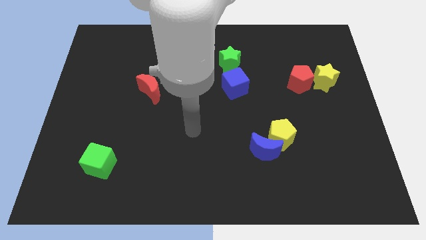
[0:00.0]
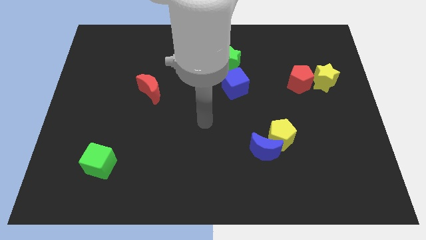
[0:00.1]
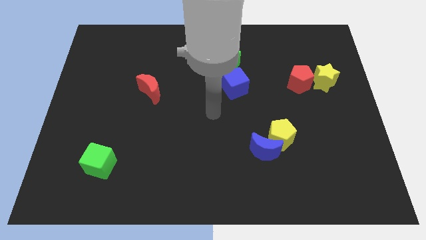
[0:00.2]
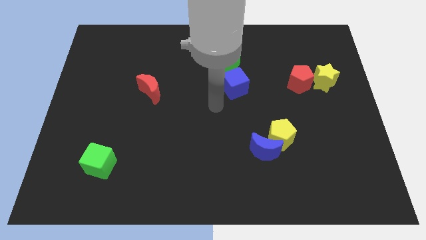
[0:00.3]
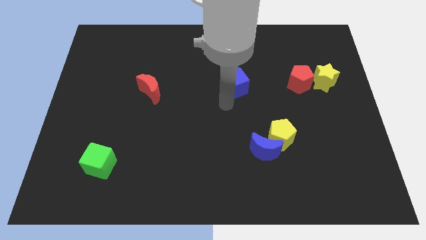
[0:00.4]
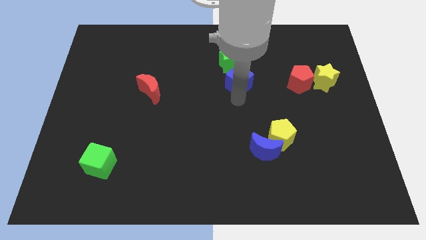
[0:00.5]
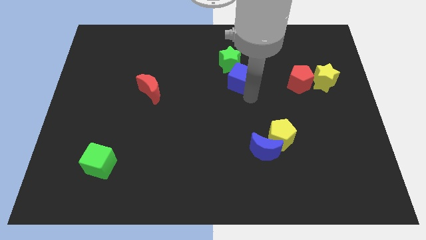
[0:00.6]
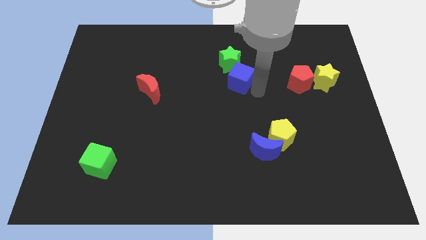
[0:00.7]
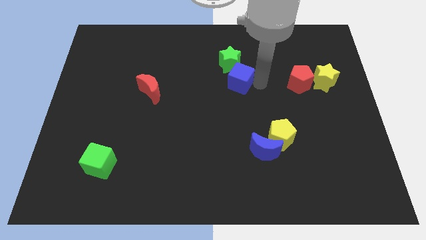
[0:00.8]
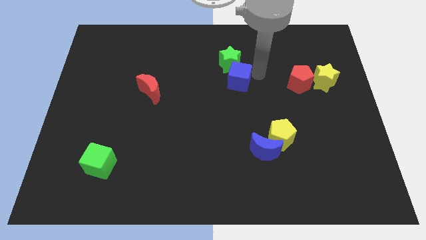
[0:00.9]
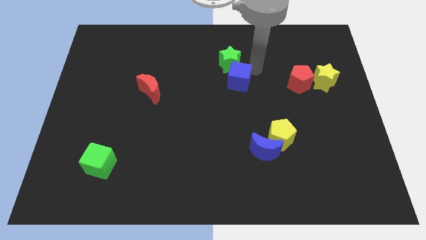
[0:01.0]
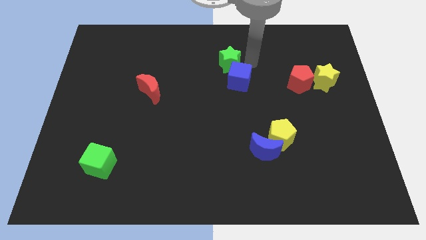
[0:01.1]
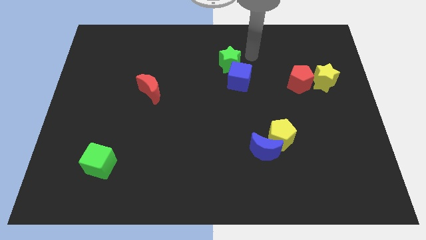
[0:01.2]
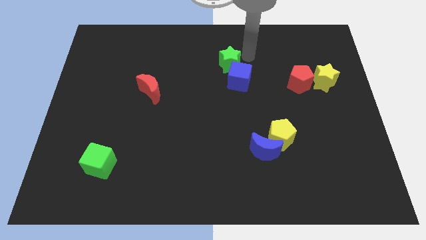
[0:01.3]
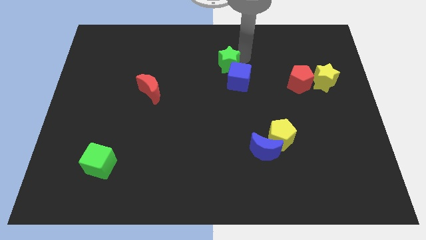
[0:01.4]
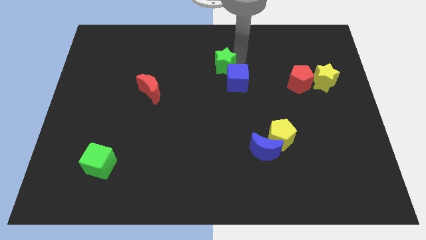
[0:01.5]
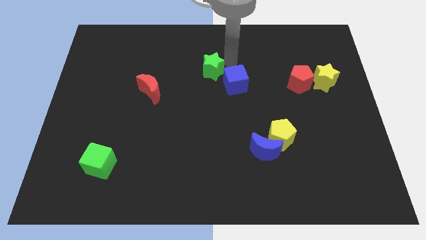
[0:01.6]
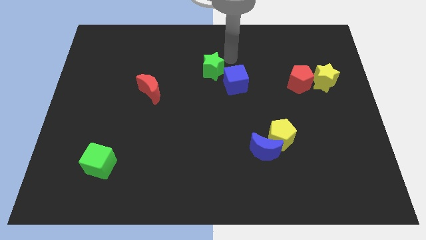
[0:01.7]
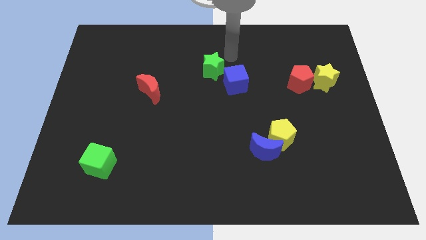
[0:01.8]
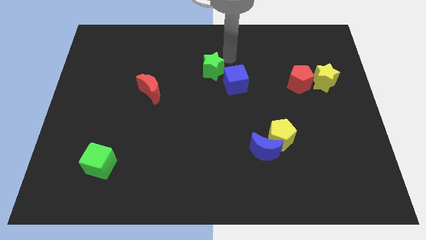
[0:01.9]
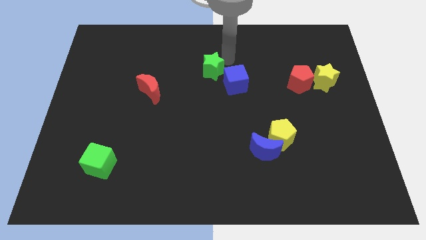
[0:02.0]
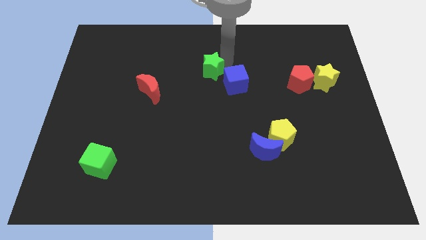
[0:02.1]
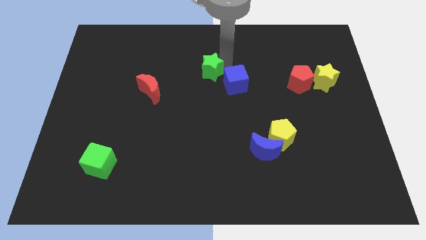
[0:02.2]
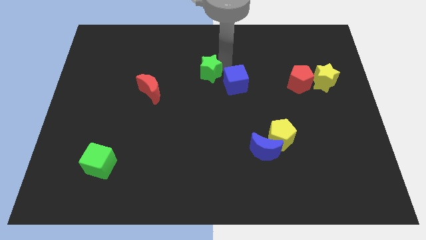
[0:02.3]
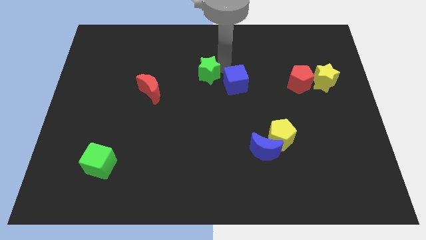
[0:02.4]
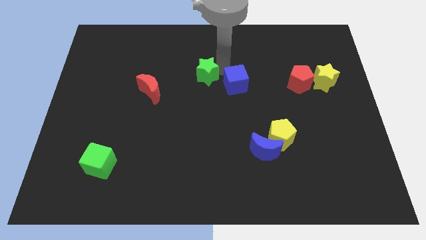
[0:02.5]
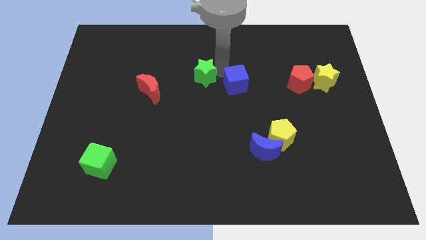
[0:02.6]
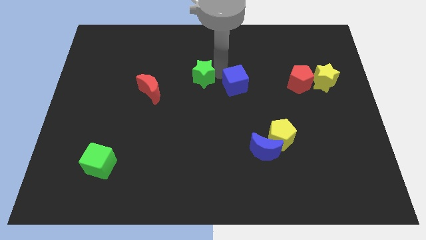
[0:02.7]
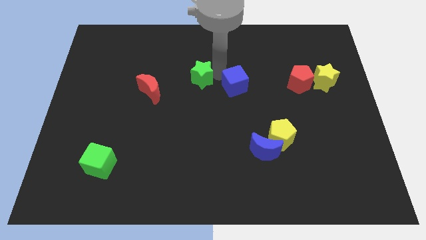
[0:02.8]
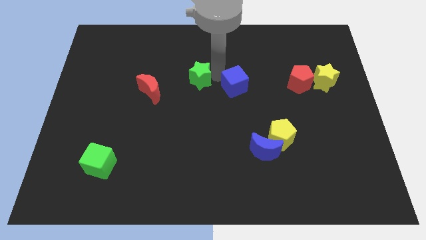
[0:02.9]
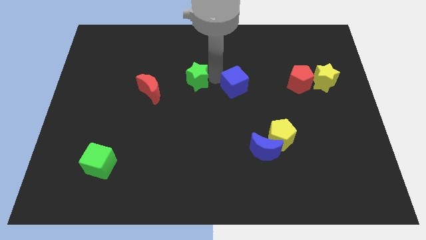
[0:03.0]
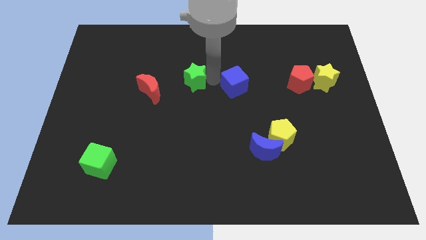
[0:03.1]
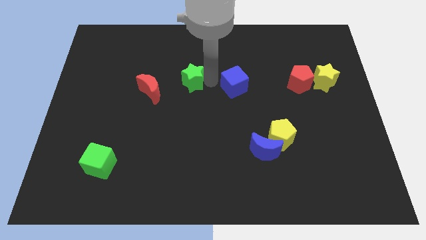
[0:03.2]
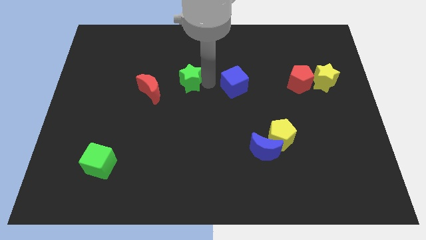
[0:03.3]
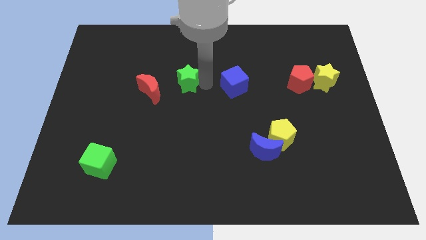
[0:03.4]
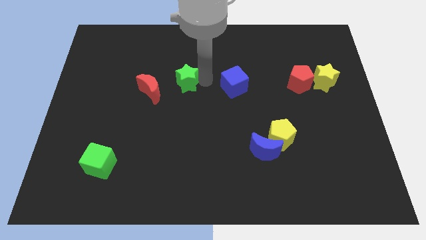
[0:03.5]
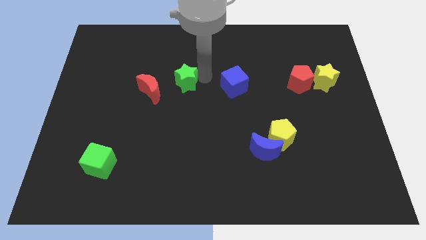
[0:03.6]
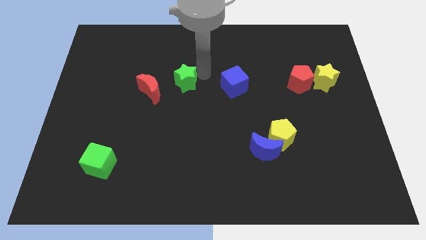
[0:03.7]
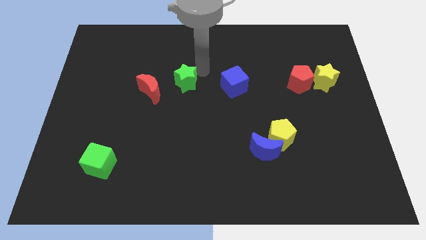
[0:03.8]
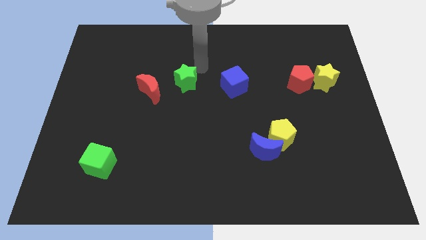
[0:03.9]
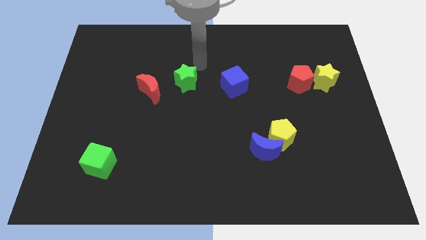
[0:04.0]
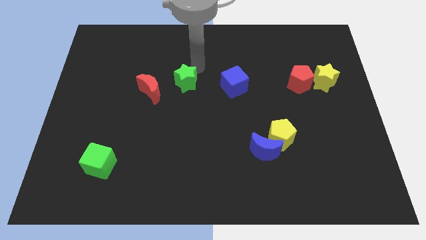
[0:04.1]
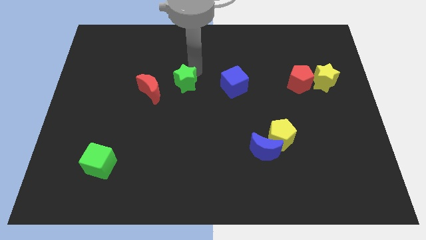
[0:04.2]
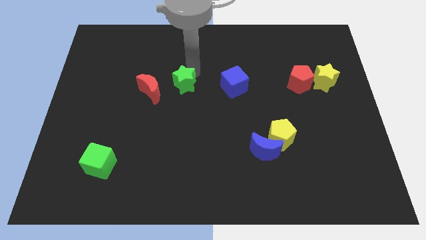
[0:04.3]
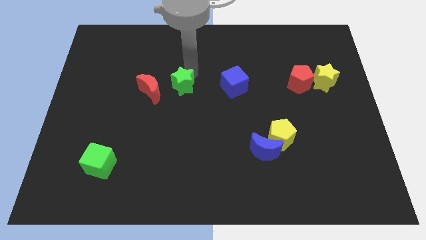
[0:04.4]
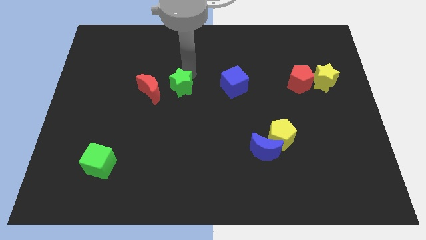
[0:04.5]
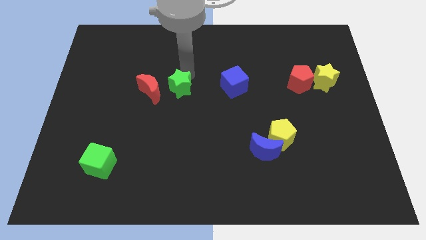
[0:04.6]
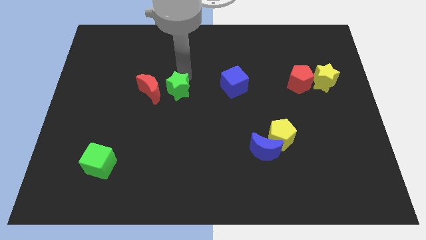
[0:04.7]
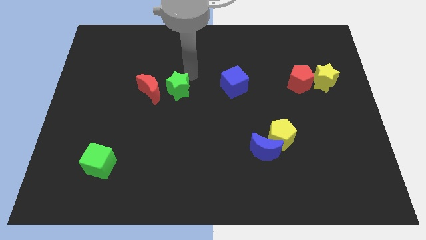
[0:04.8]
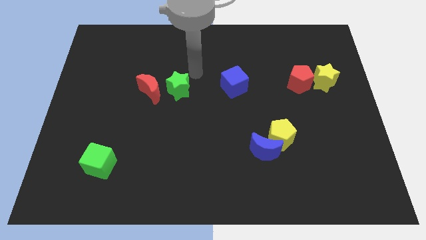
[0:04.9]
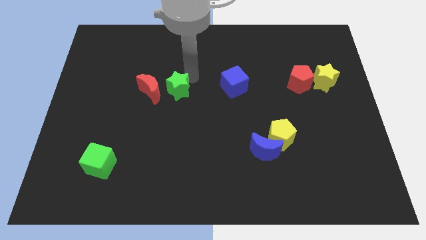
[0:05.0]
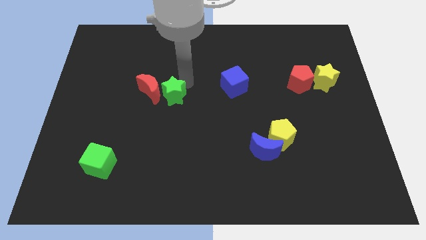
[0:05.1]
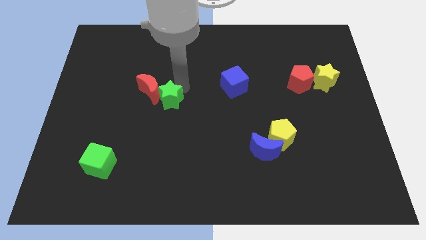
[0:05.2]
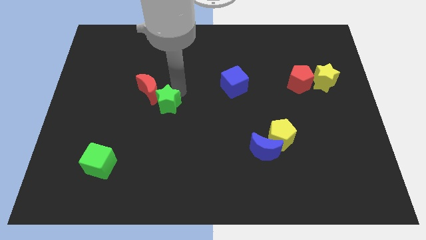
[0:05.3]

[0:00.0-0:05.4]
push the green star down and then left

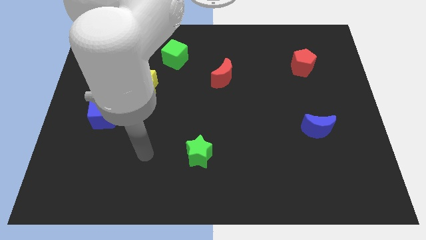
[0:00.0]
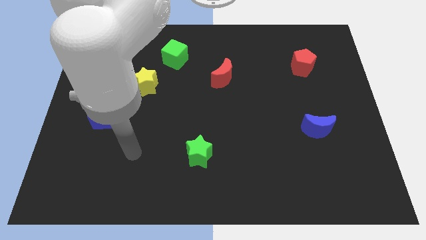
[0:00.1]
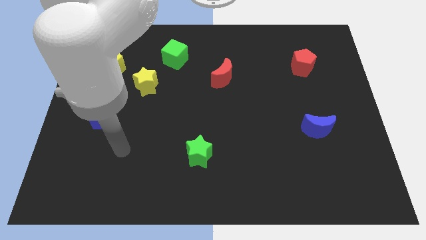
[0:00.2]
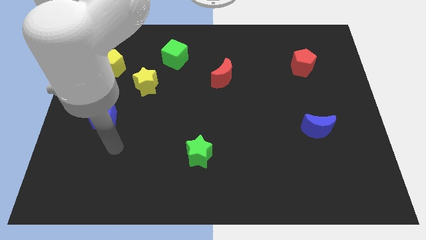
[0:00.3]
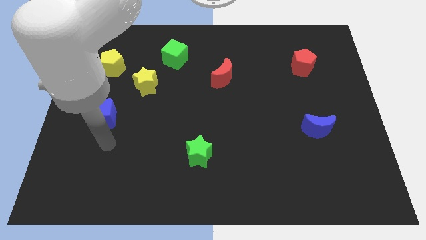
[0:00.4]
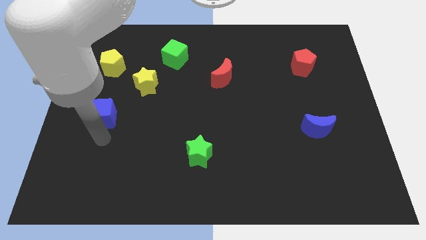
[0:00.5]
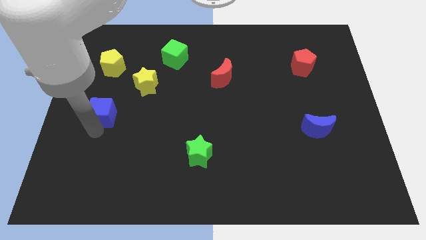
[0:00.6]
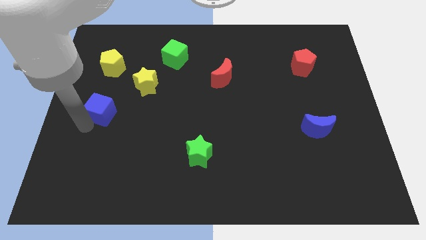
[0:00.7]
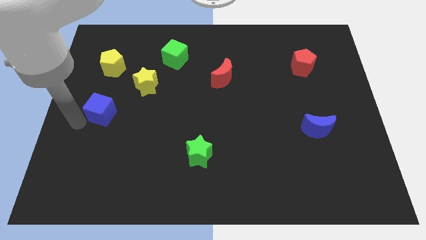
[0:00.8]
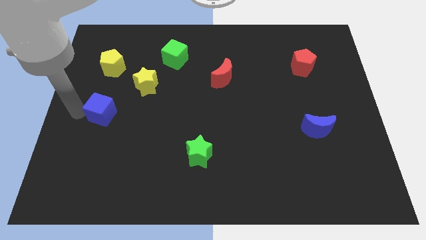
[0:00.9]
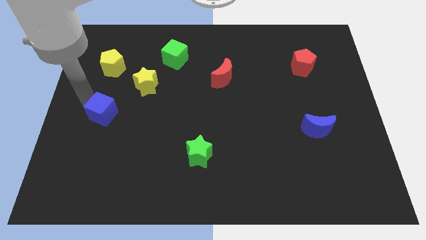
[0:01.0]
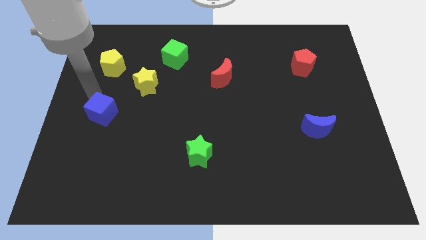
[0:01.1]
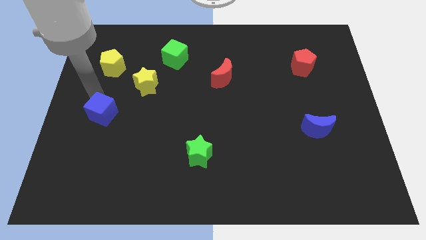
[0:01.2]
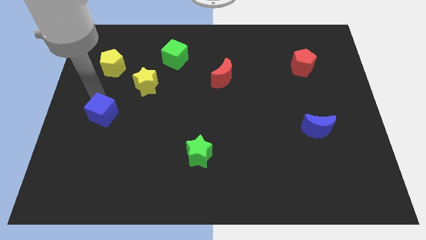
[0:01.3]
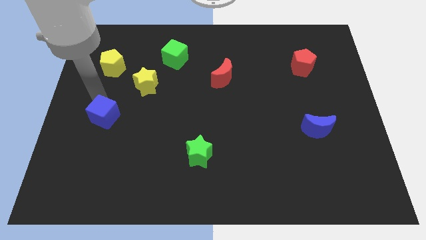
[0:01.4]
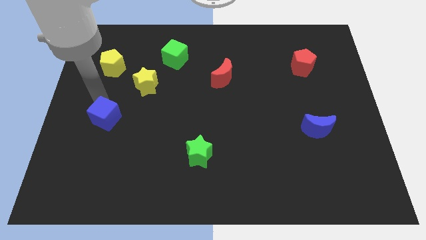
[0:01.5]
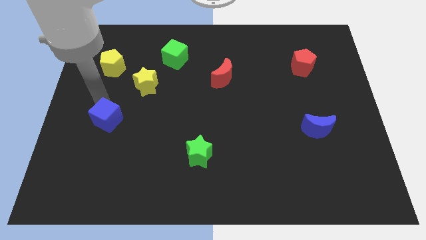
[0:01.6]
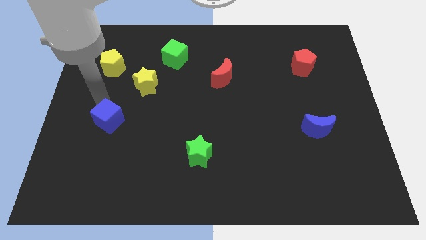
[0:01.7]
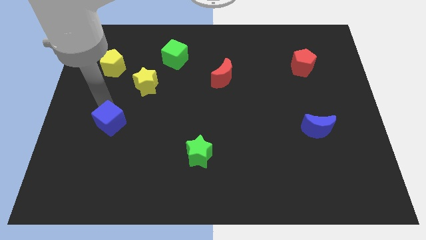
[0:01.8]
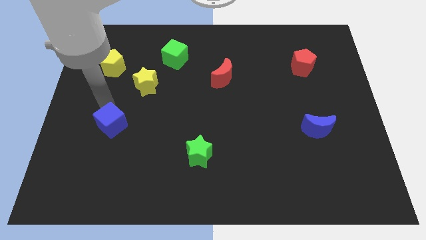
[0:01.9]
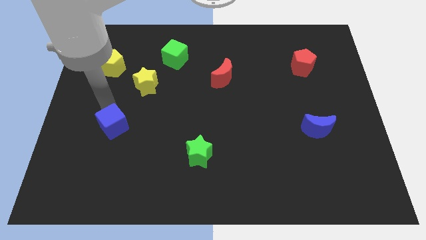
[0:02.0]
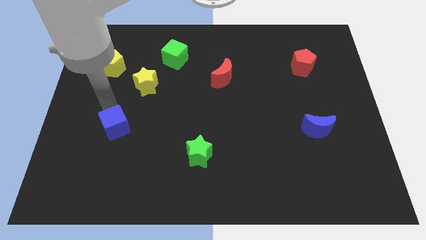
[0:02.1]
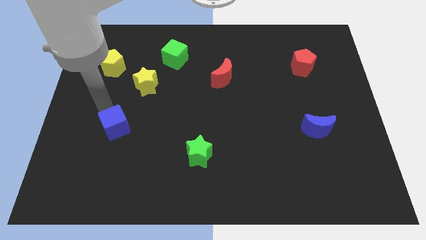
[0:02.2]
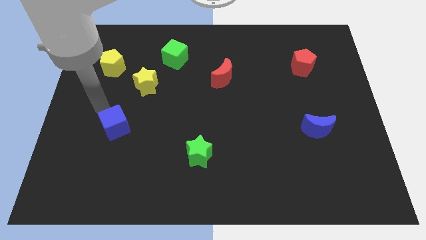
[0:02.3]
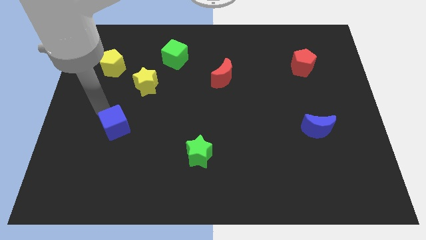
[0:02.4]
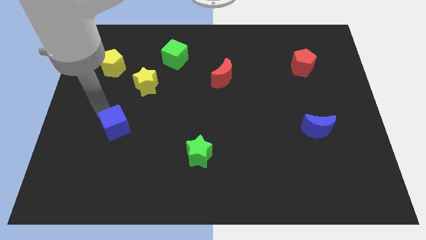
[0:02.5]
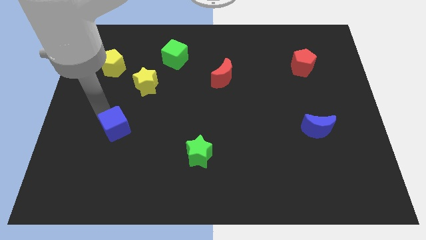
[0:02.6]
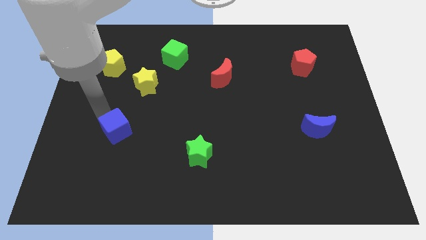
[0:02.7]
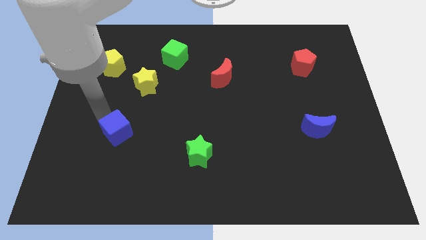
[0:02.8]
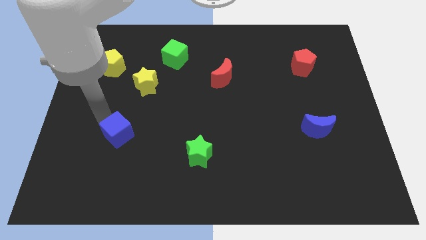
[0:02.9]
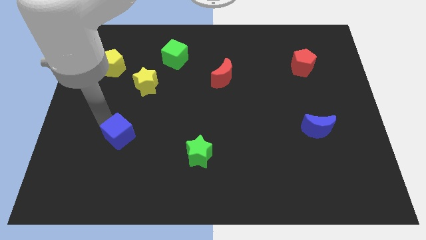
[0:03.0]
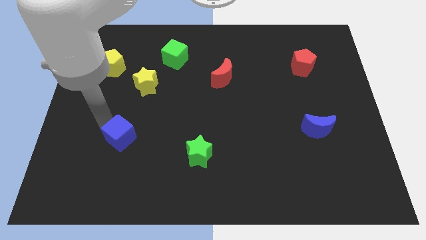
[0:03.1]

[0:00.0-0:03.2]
move the blue cube a little down and right diagonally
